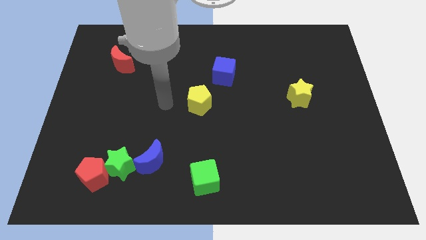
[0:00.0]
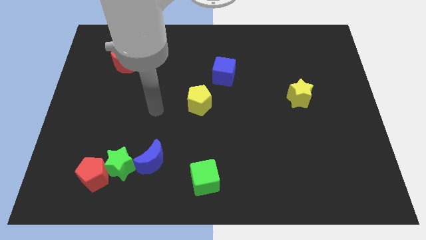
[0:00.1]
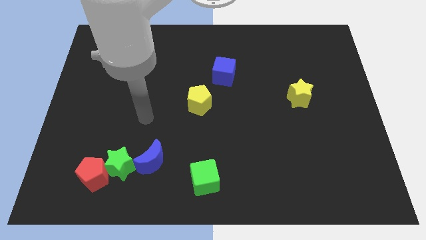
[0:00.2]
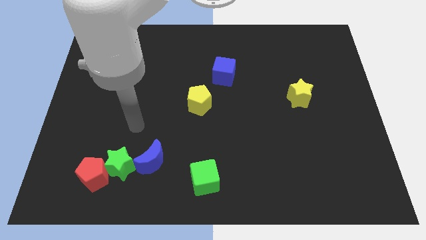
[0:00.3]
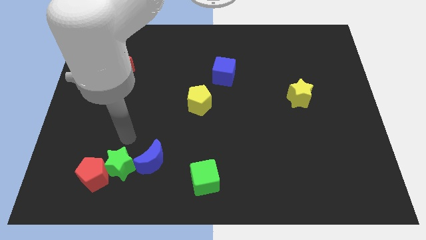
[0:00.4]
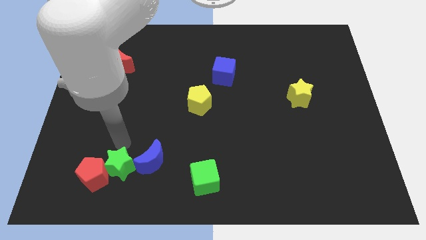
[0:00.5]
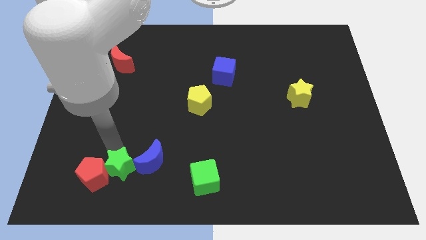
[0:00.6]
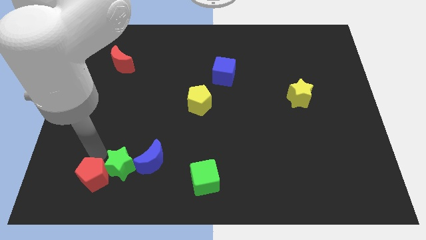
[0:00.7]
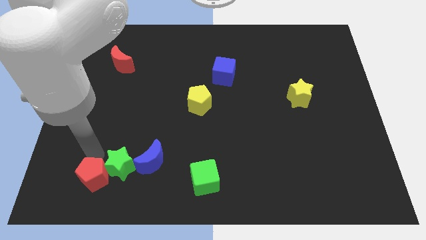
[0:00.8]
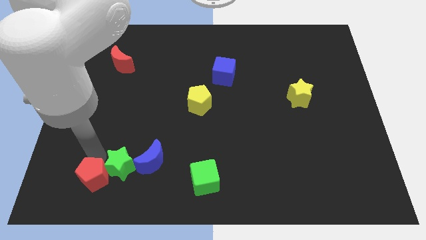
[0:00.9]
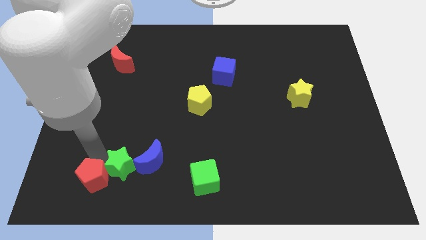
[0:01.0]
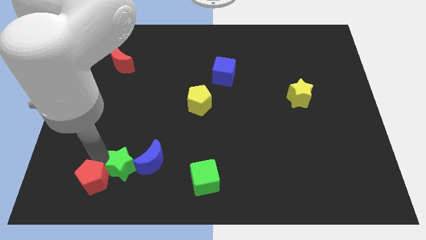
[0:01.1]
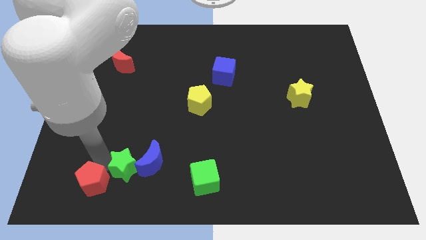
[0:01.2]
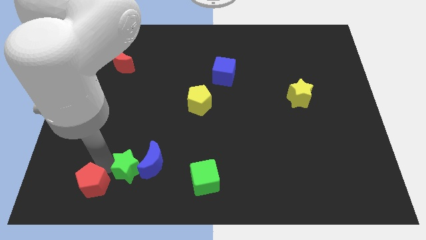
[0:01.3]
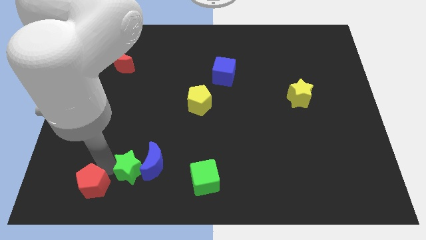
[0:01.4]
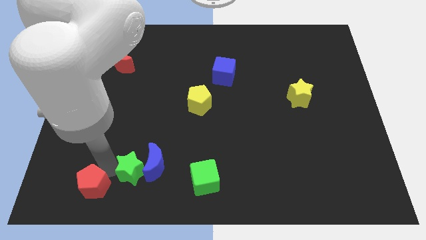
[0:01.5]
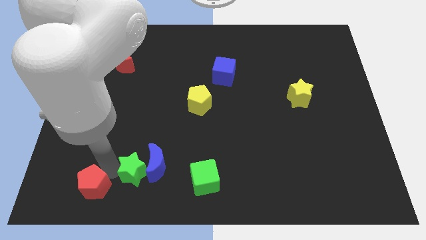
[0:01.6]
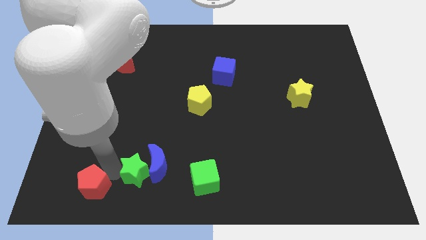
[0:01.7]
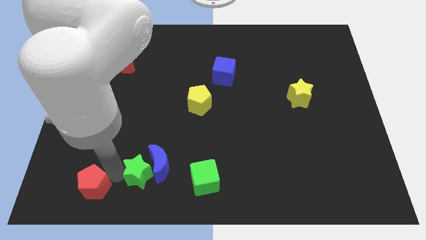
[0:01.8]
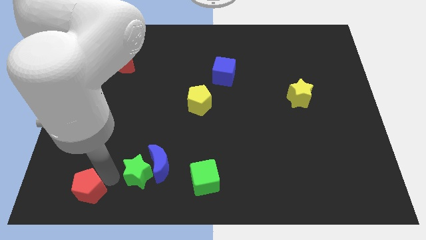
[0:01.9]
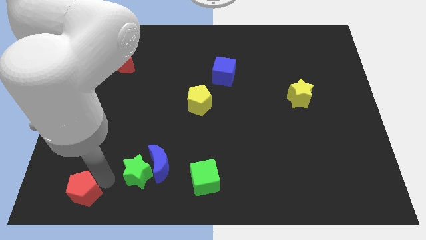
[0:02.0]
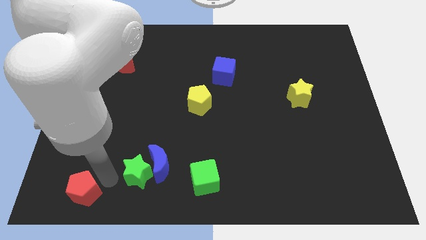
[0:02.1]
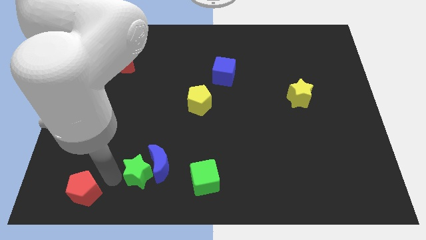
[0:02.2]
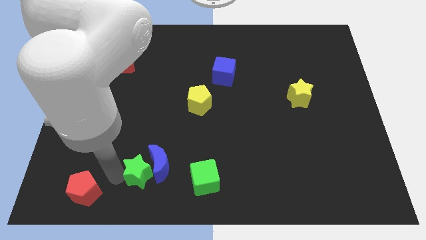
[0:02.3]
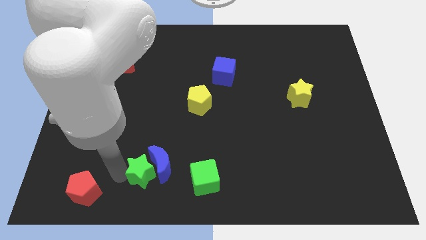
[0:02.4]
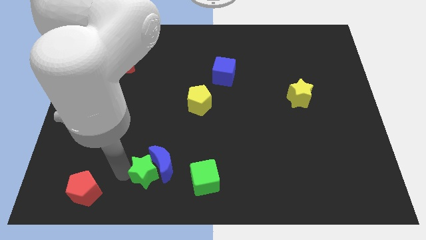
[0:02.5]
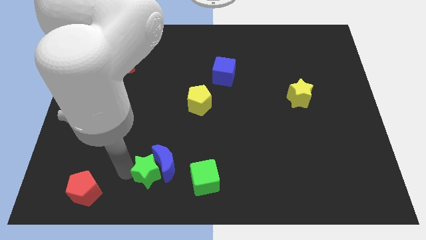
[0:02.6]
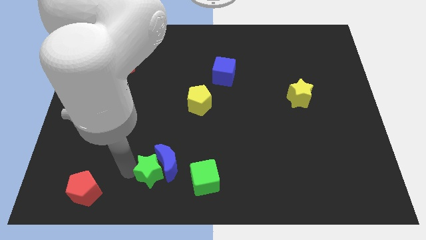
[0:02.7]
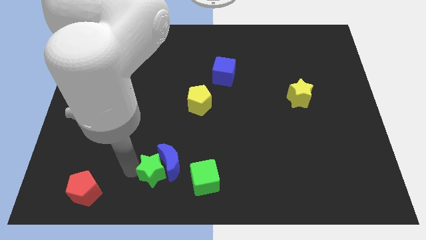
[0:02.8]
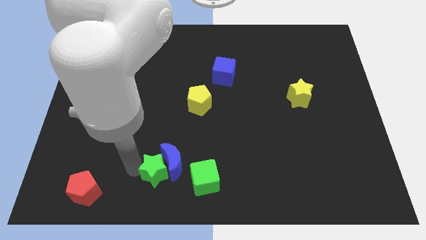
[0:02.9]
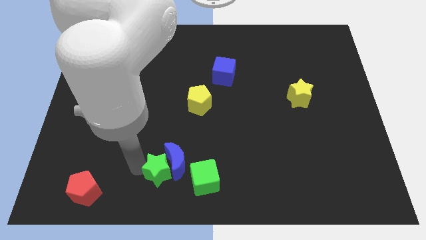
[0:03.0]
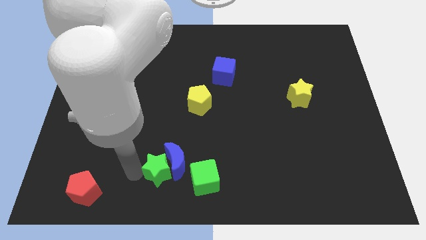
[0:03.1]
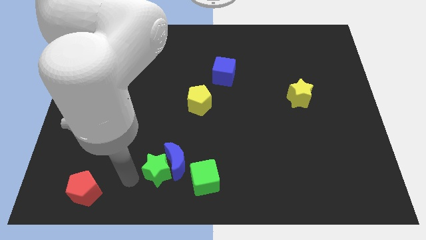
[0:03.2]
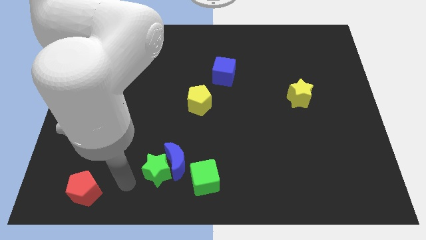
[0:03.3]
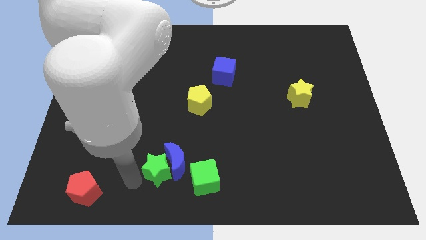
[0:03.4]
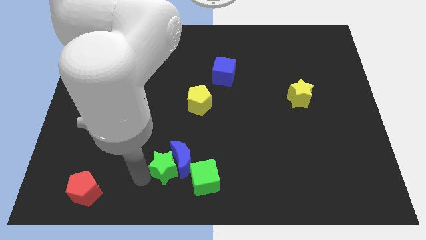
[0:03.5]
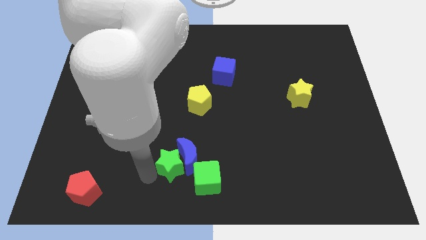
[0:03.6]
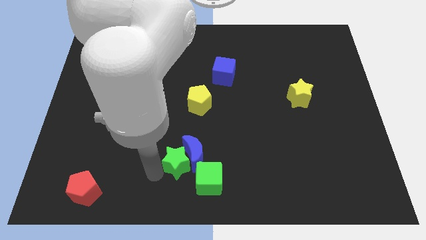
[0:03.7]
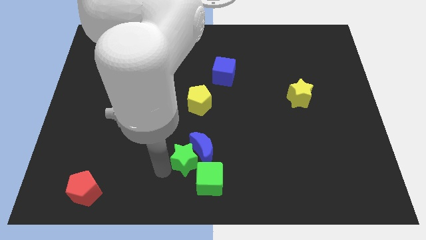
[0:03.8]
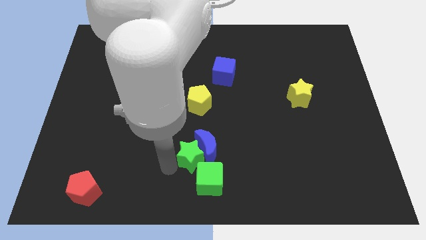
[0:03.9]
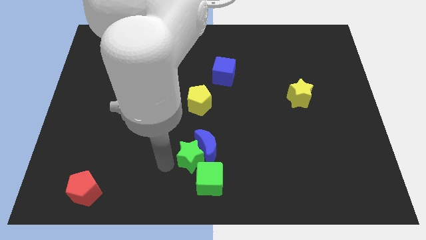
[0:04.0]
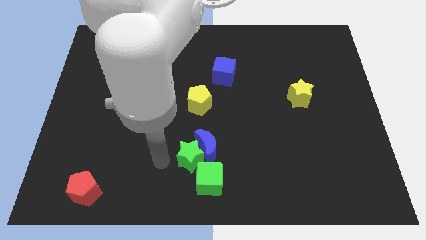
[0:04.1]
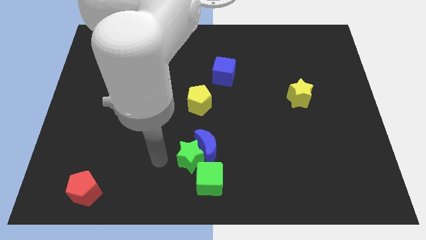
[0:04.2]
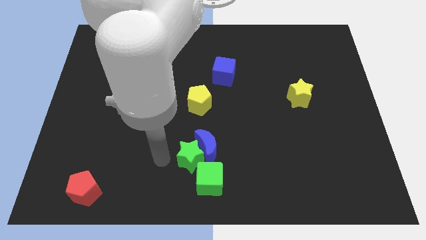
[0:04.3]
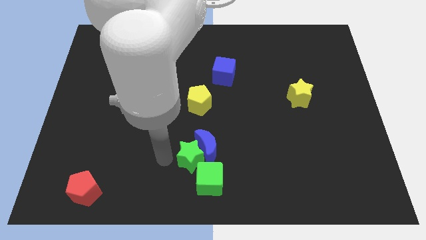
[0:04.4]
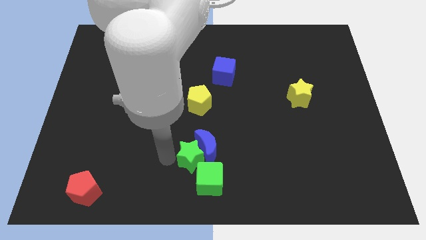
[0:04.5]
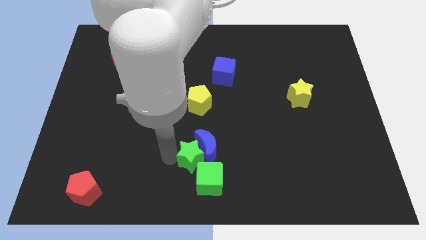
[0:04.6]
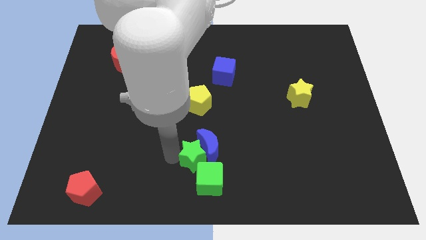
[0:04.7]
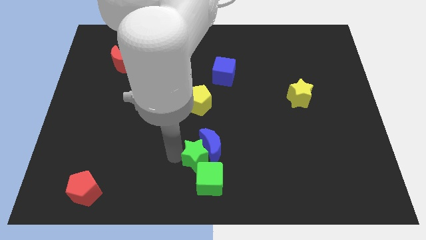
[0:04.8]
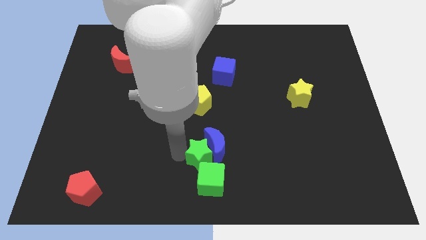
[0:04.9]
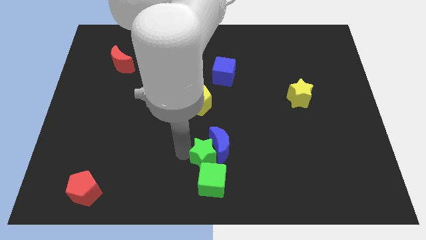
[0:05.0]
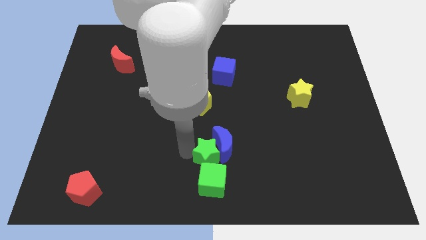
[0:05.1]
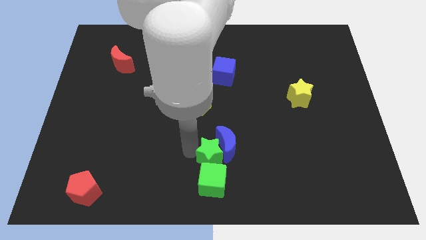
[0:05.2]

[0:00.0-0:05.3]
put the green star to the top right side of the green cube

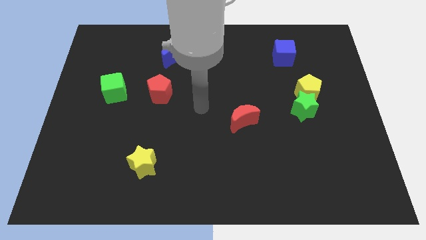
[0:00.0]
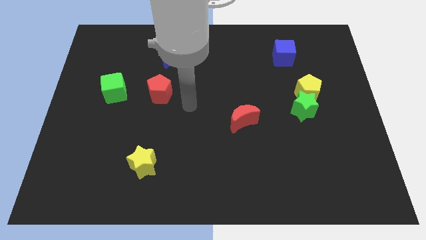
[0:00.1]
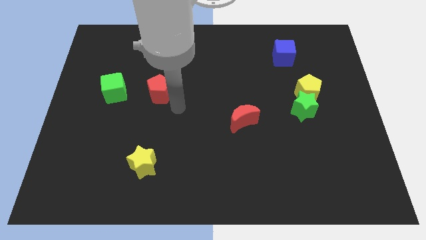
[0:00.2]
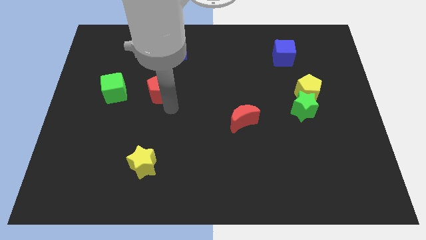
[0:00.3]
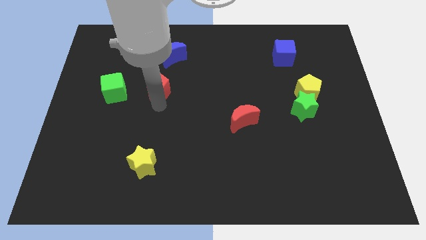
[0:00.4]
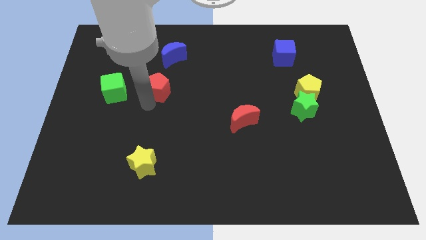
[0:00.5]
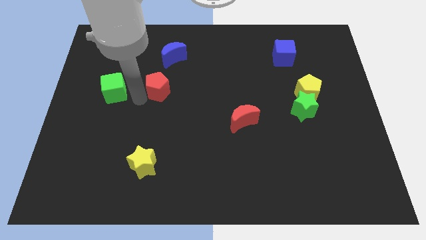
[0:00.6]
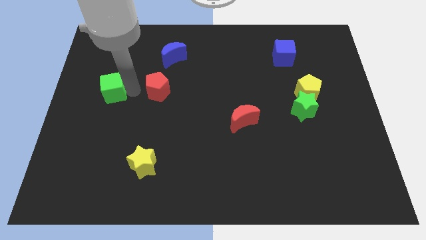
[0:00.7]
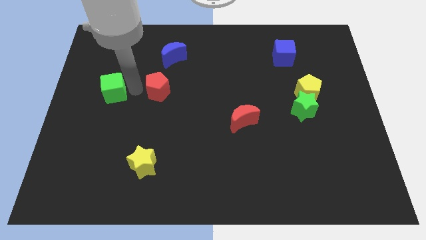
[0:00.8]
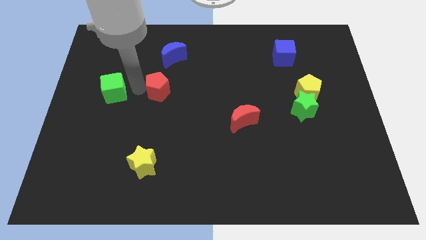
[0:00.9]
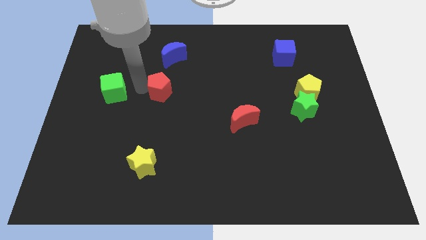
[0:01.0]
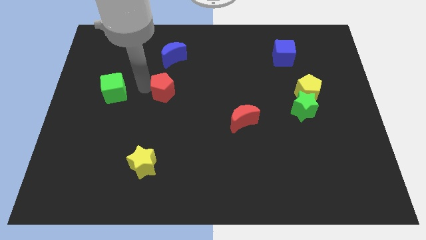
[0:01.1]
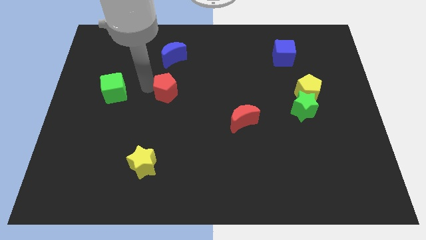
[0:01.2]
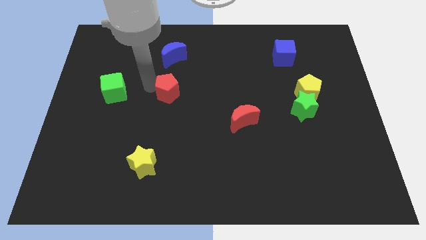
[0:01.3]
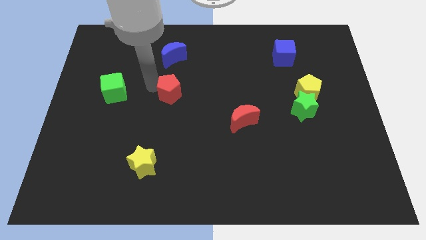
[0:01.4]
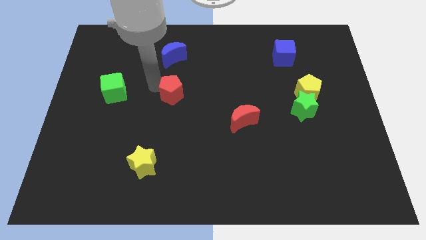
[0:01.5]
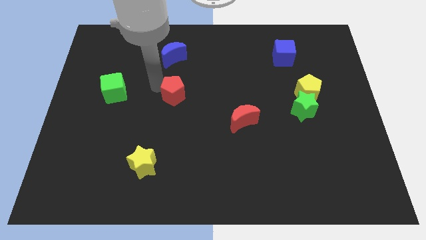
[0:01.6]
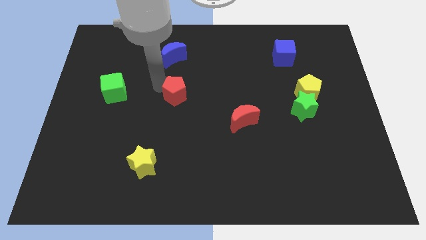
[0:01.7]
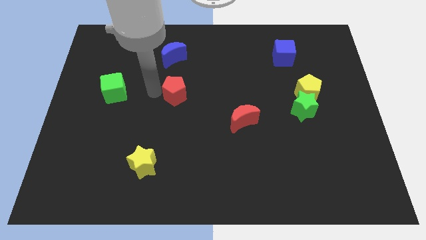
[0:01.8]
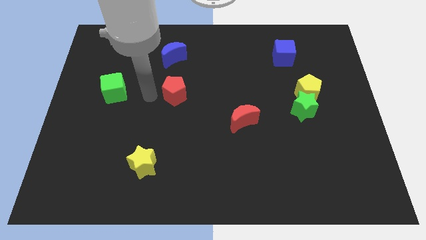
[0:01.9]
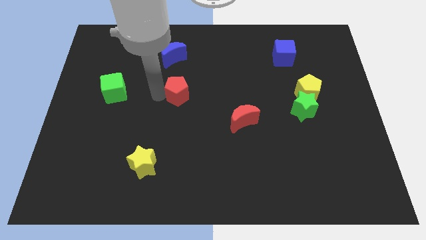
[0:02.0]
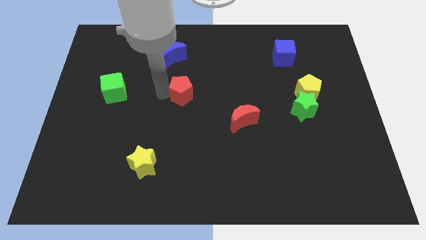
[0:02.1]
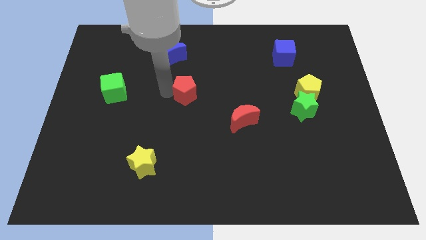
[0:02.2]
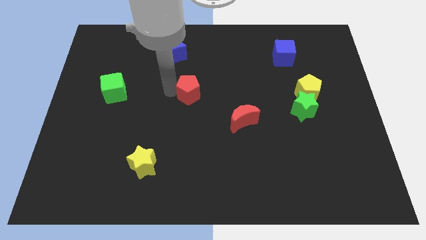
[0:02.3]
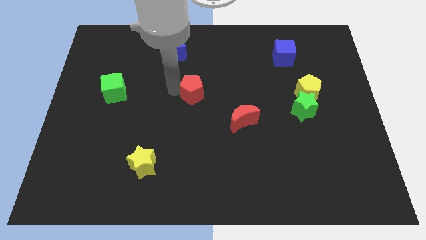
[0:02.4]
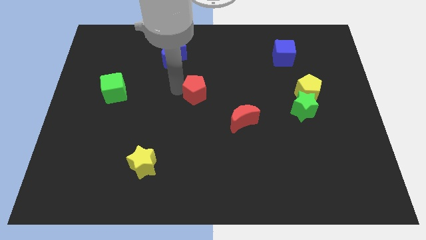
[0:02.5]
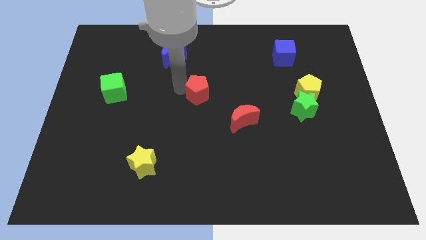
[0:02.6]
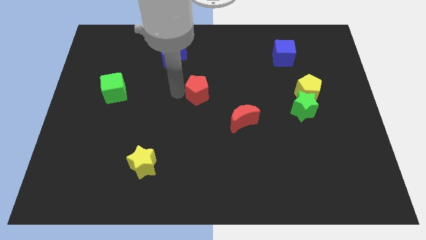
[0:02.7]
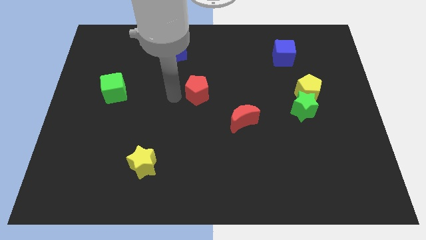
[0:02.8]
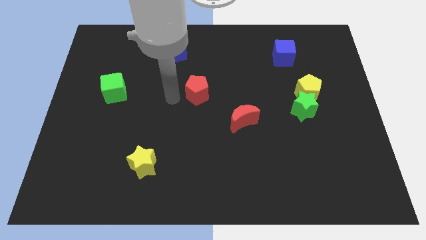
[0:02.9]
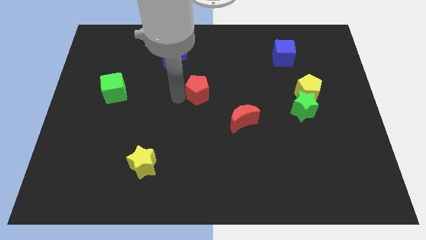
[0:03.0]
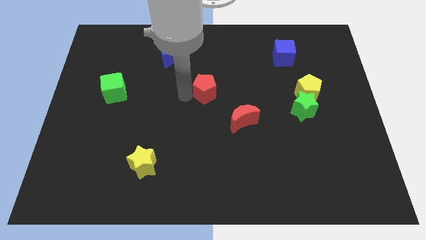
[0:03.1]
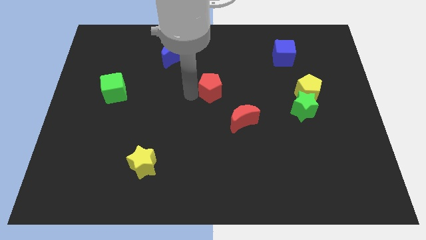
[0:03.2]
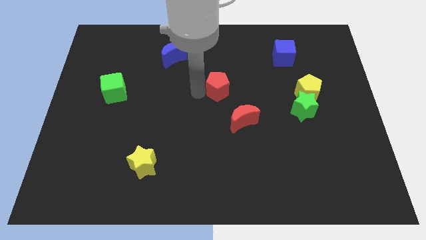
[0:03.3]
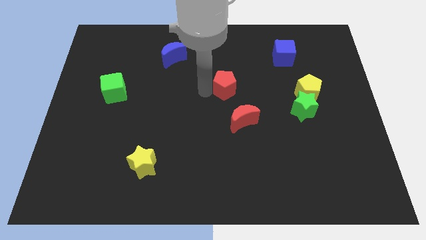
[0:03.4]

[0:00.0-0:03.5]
push the red pentagon above the red moon
